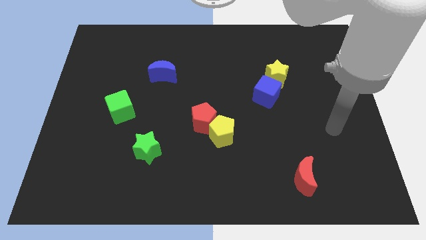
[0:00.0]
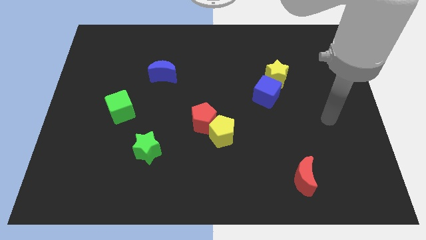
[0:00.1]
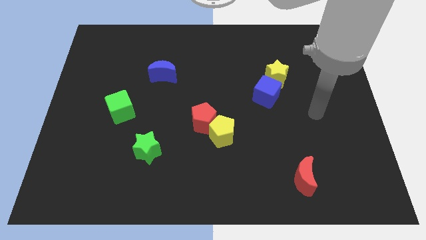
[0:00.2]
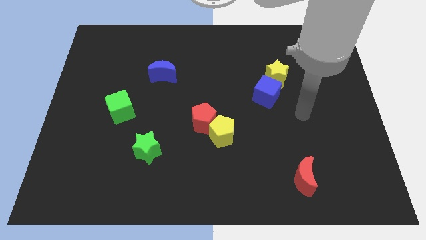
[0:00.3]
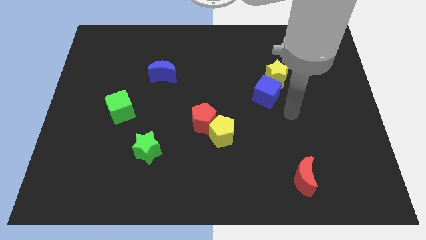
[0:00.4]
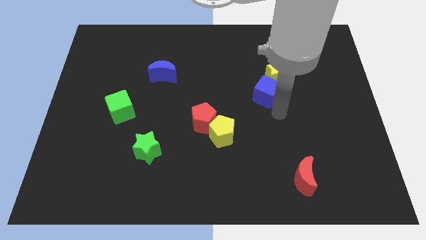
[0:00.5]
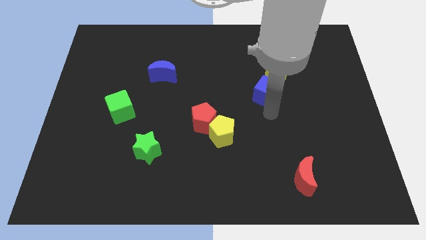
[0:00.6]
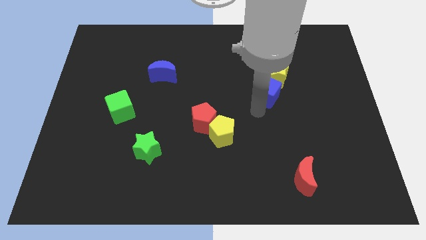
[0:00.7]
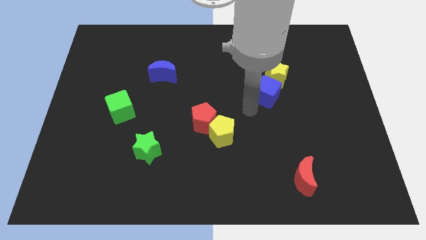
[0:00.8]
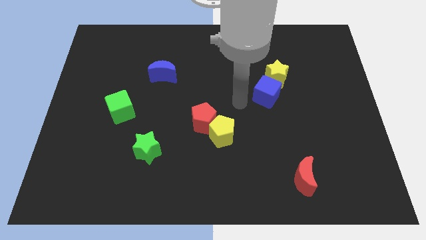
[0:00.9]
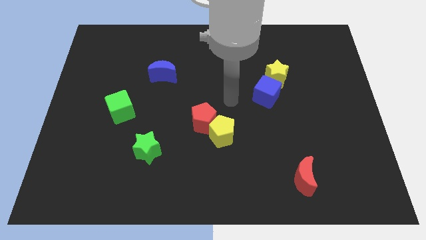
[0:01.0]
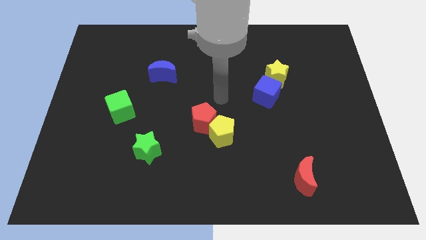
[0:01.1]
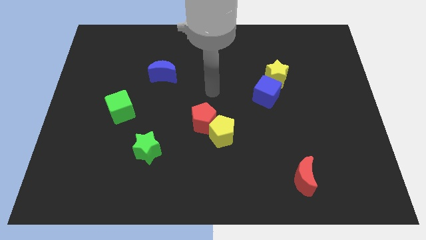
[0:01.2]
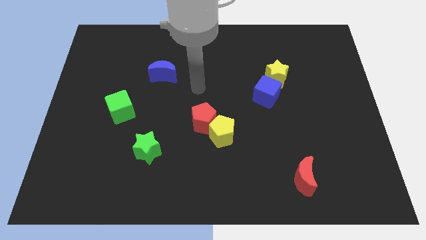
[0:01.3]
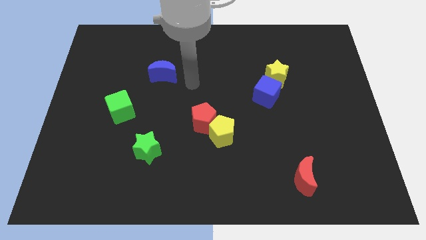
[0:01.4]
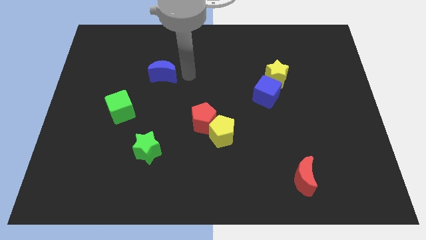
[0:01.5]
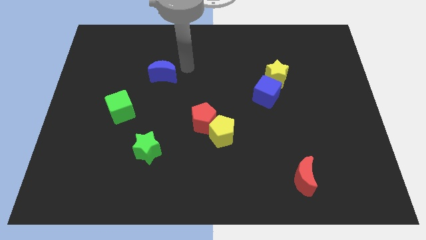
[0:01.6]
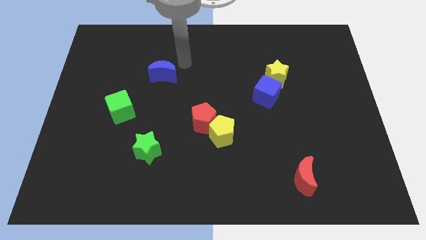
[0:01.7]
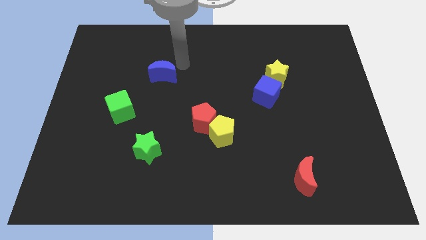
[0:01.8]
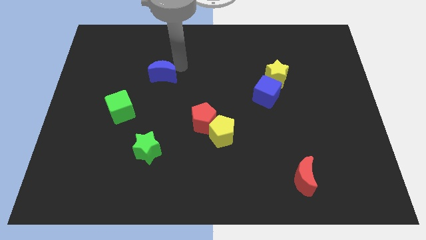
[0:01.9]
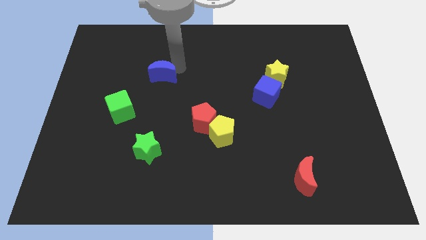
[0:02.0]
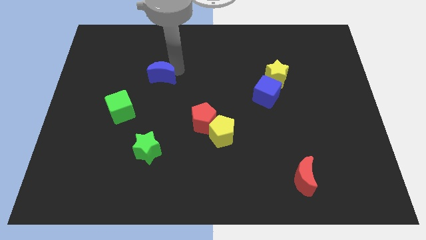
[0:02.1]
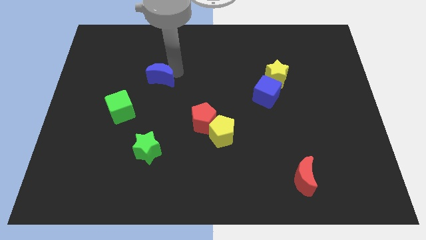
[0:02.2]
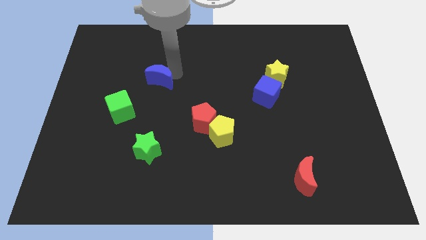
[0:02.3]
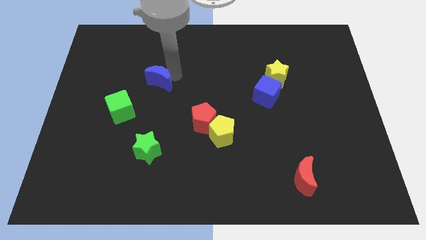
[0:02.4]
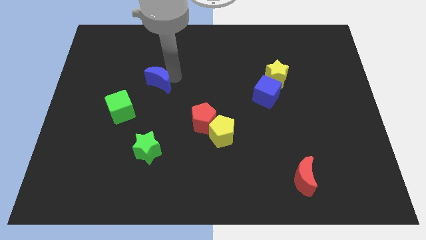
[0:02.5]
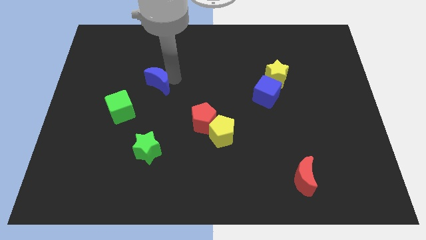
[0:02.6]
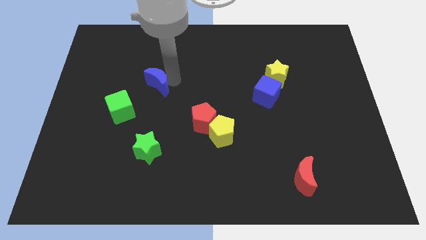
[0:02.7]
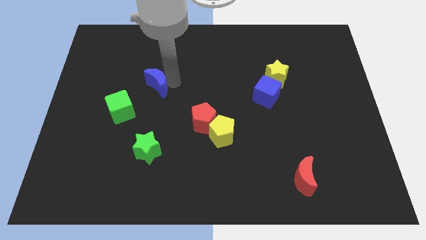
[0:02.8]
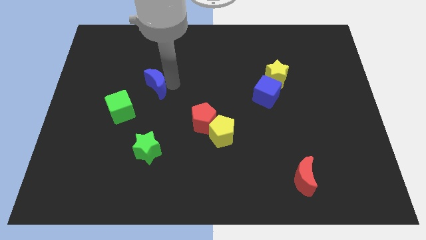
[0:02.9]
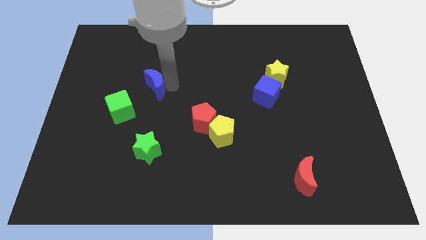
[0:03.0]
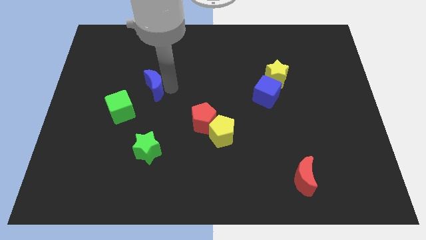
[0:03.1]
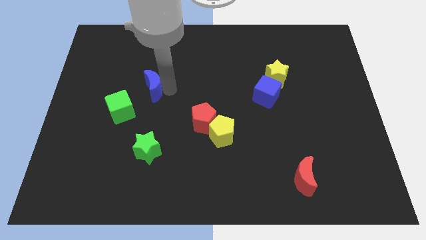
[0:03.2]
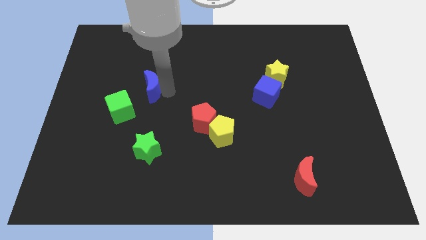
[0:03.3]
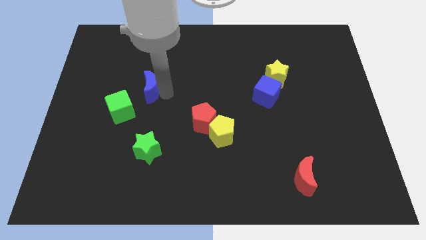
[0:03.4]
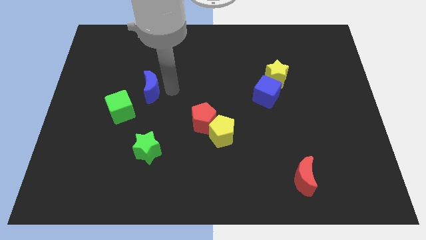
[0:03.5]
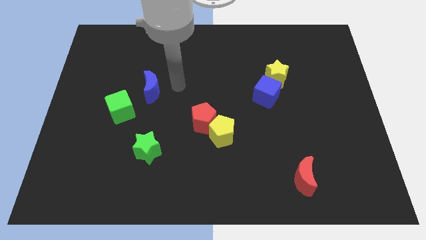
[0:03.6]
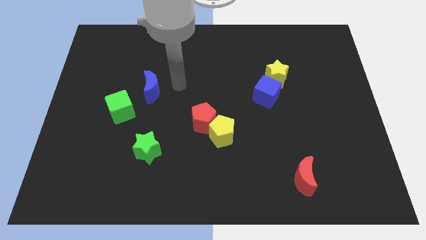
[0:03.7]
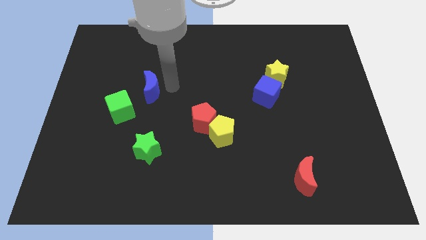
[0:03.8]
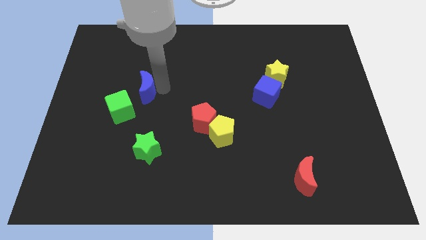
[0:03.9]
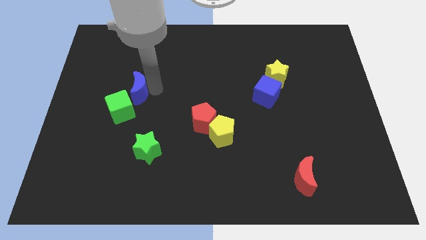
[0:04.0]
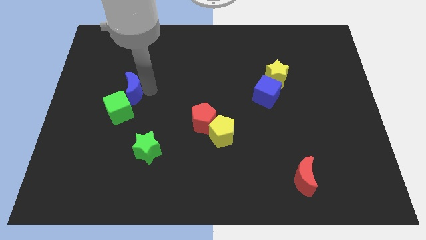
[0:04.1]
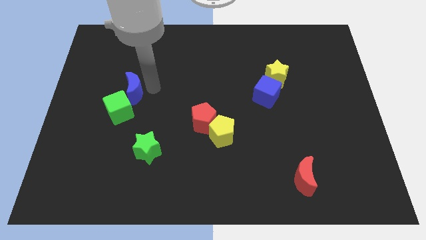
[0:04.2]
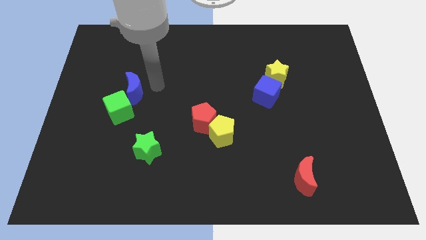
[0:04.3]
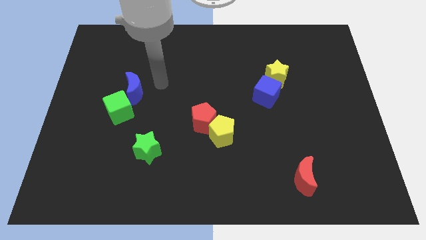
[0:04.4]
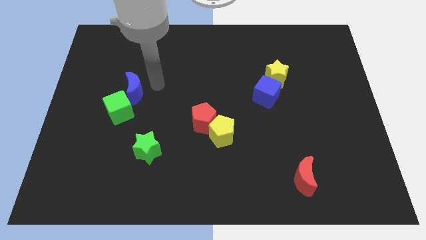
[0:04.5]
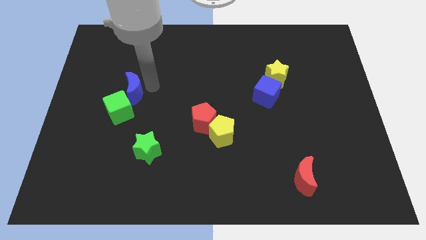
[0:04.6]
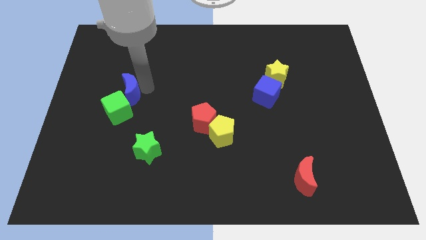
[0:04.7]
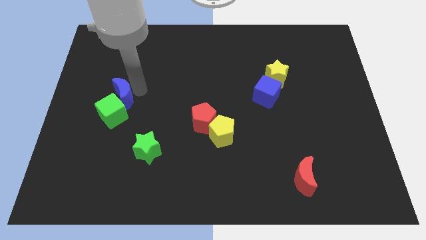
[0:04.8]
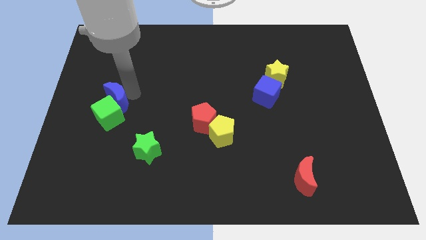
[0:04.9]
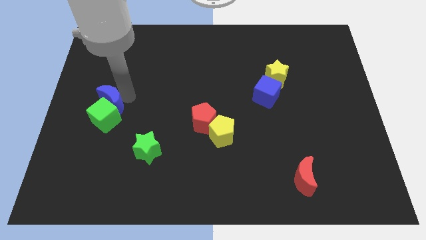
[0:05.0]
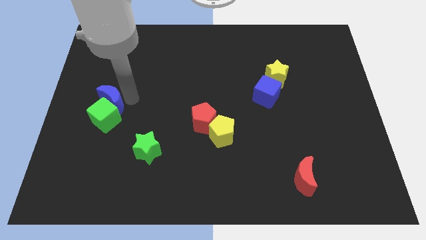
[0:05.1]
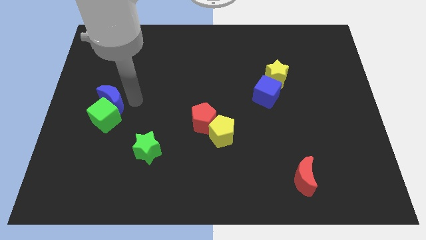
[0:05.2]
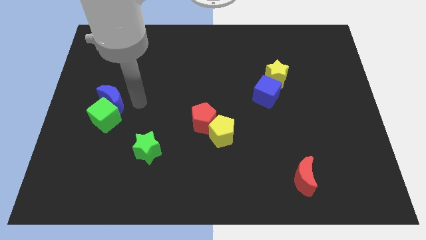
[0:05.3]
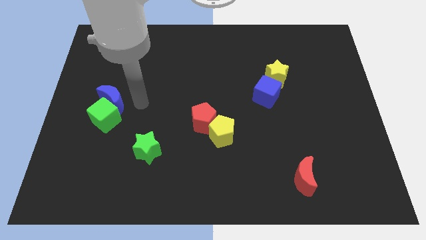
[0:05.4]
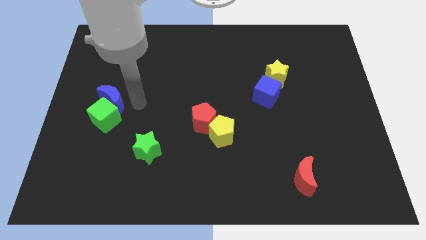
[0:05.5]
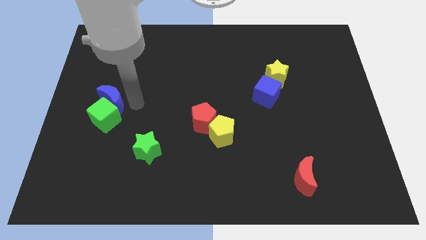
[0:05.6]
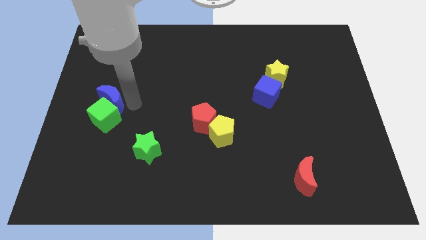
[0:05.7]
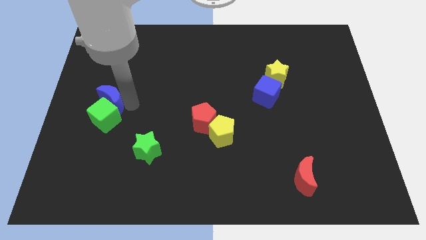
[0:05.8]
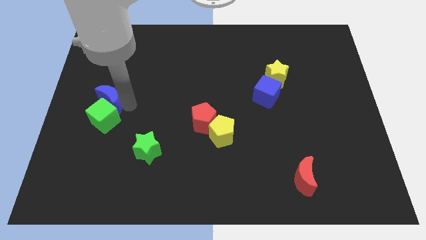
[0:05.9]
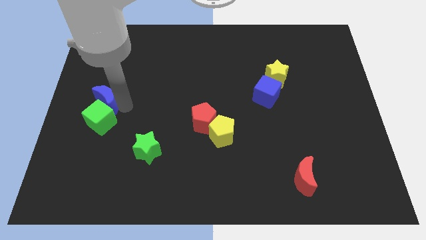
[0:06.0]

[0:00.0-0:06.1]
push the blue moon to the center left

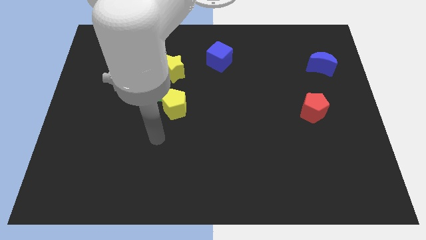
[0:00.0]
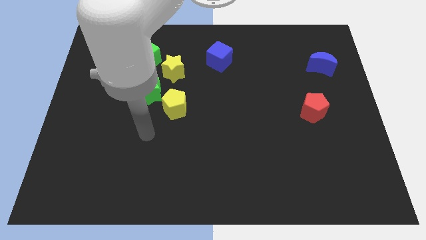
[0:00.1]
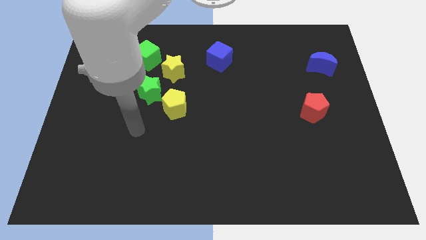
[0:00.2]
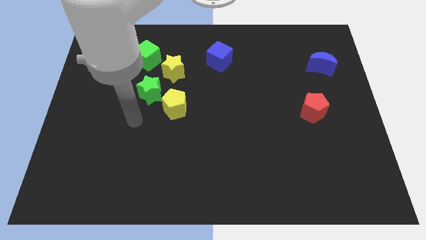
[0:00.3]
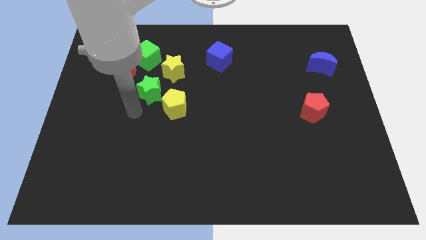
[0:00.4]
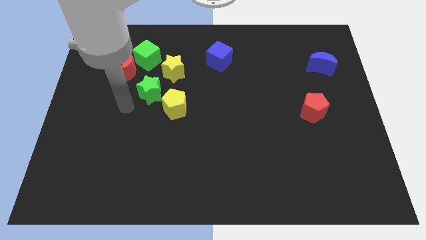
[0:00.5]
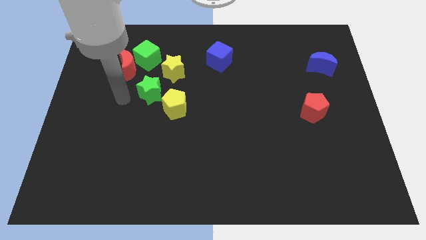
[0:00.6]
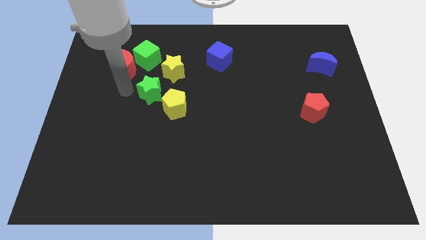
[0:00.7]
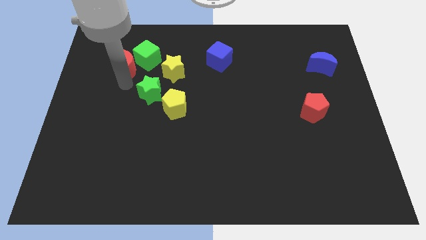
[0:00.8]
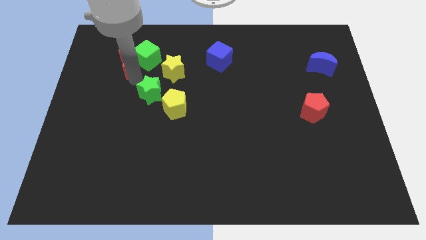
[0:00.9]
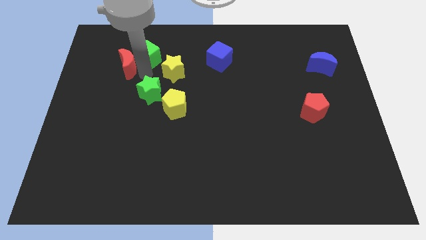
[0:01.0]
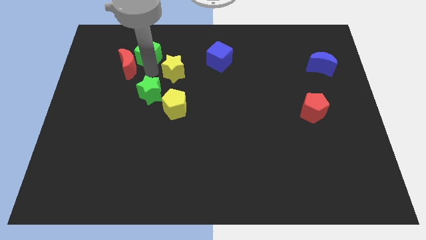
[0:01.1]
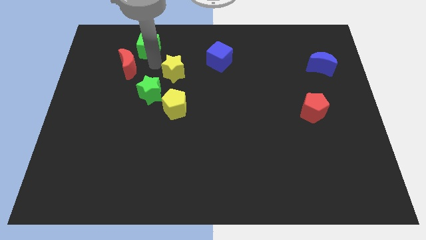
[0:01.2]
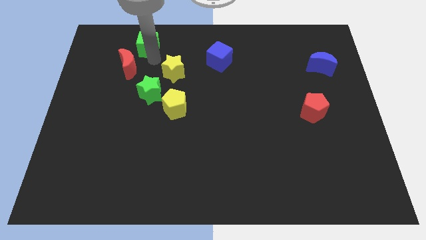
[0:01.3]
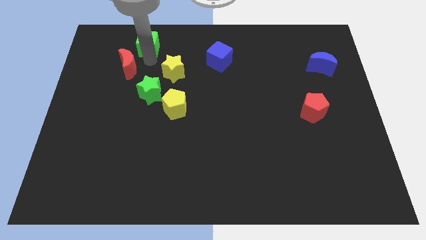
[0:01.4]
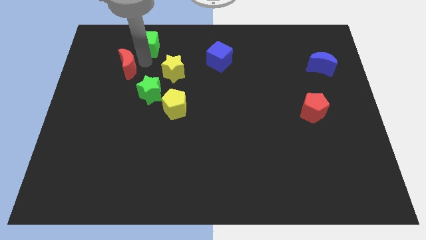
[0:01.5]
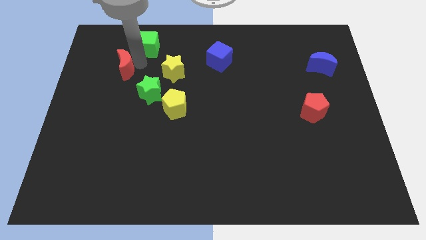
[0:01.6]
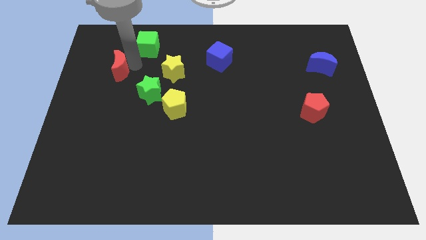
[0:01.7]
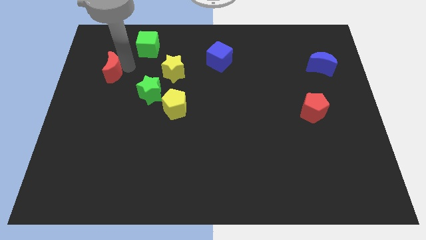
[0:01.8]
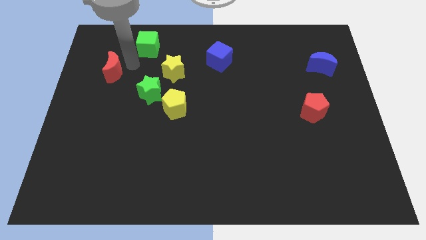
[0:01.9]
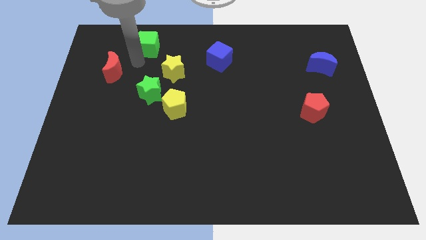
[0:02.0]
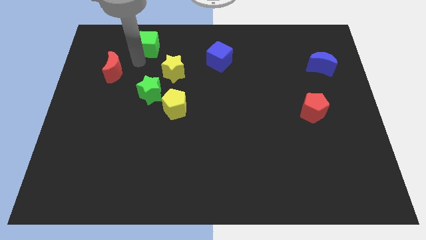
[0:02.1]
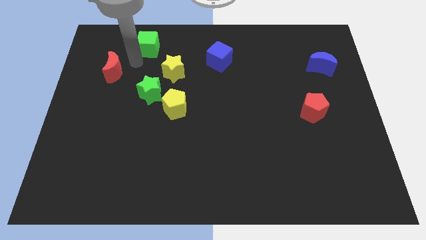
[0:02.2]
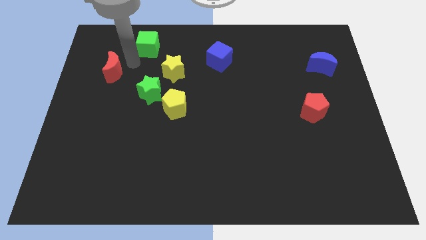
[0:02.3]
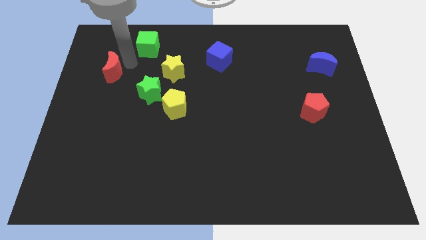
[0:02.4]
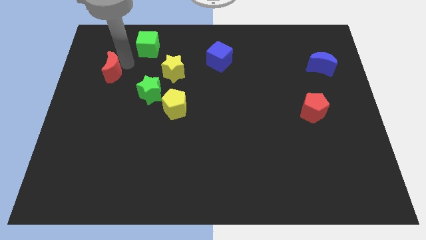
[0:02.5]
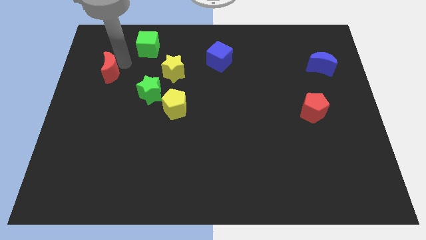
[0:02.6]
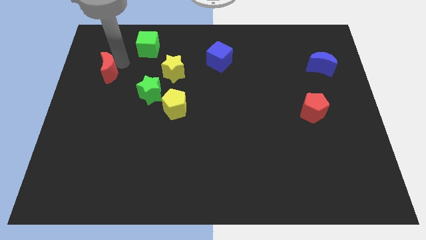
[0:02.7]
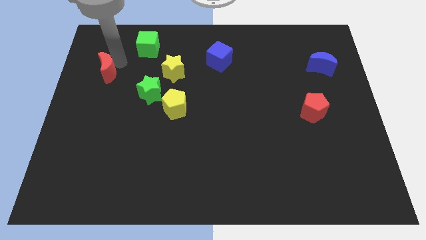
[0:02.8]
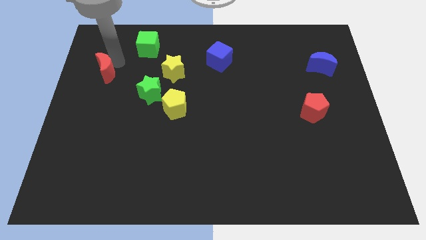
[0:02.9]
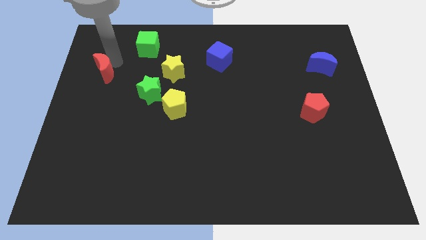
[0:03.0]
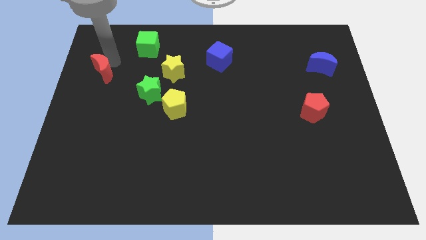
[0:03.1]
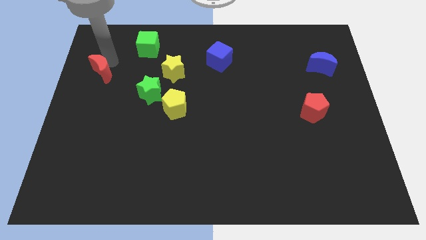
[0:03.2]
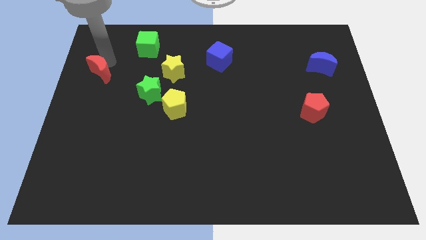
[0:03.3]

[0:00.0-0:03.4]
put the red moon to the left side of the board
